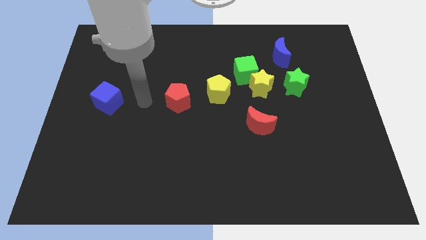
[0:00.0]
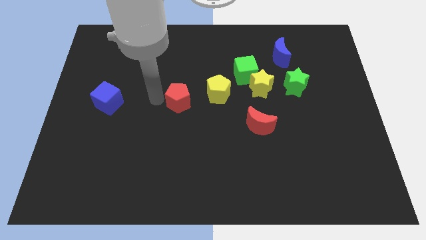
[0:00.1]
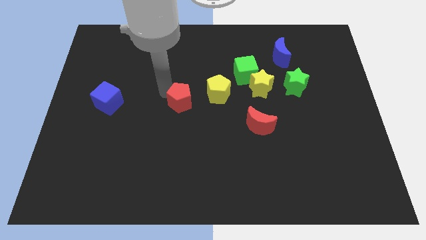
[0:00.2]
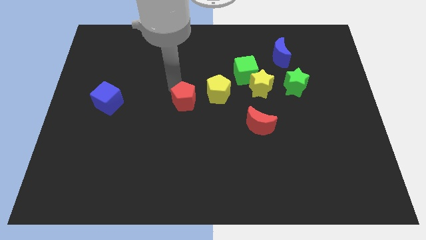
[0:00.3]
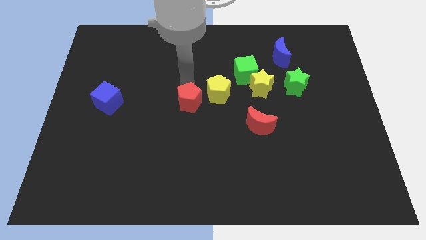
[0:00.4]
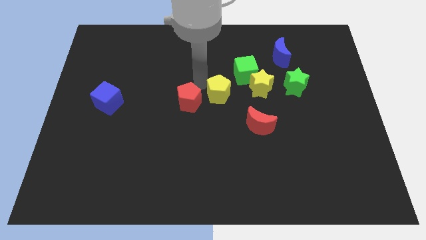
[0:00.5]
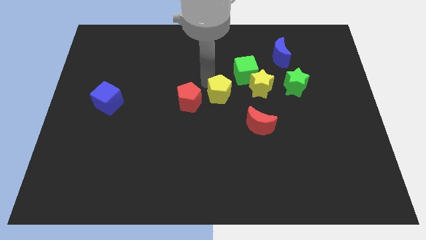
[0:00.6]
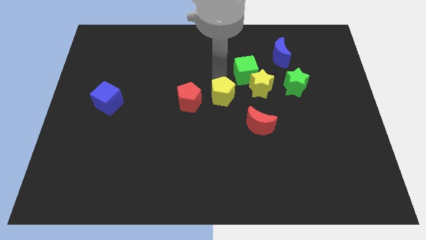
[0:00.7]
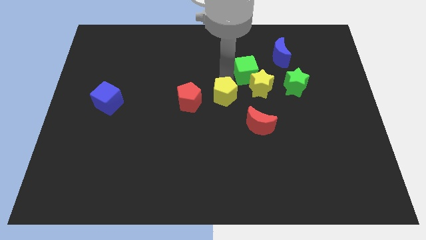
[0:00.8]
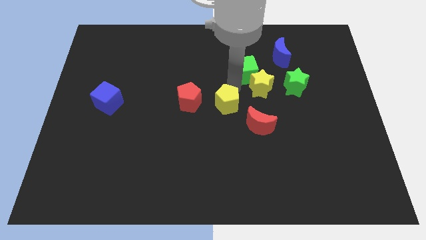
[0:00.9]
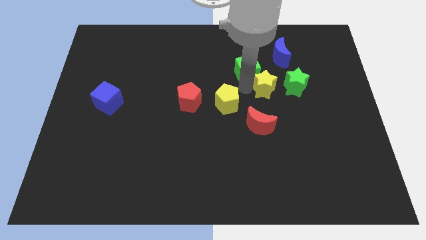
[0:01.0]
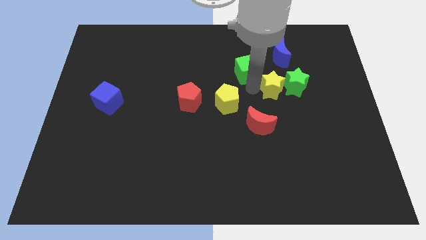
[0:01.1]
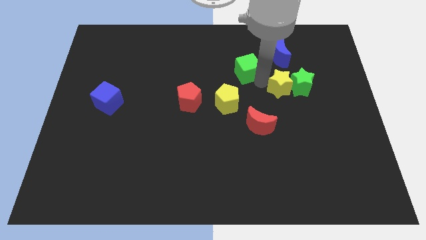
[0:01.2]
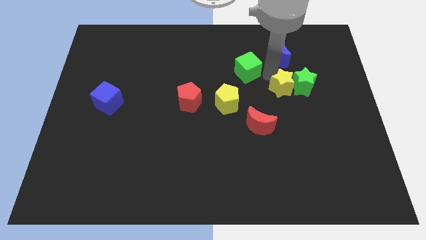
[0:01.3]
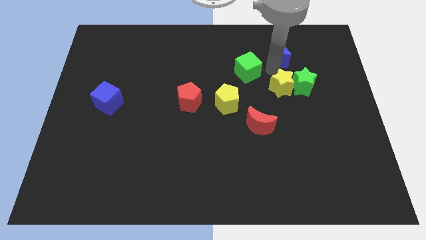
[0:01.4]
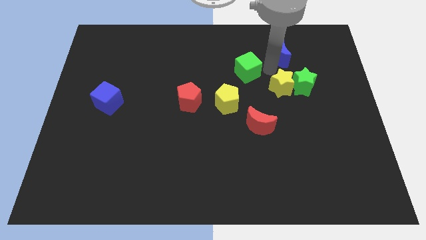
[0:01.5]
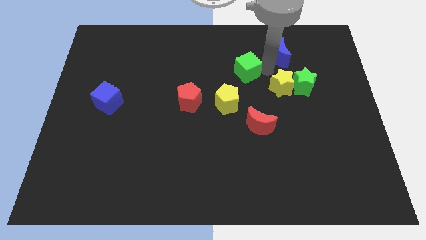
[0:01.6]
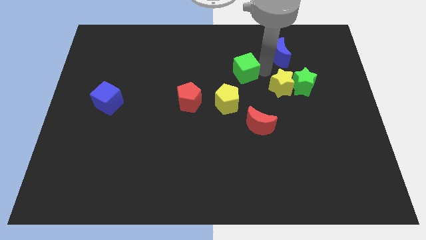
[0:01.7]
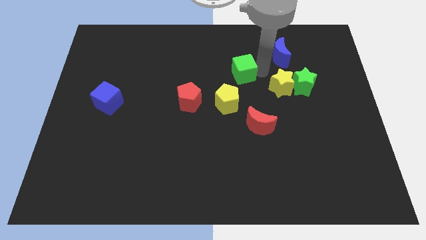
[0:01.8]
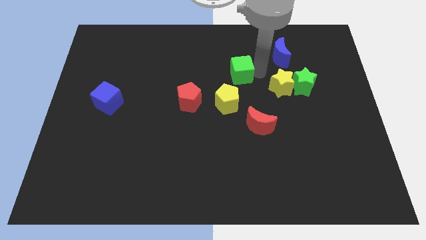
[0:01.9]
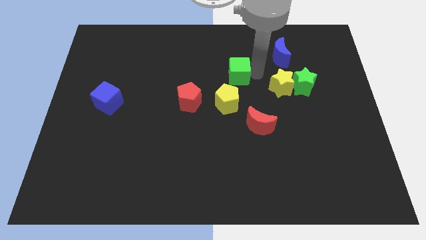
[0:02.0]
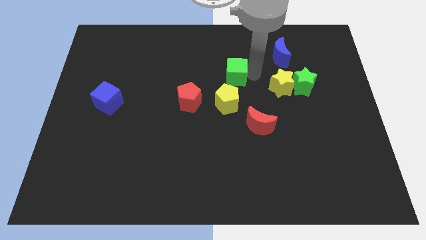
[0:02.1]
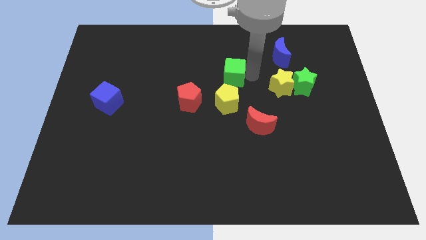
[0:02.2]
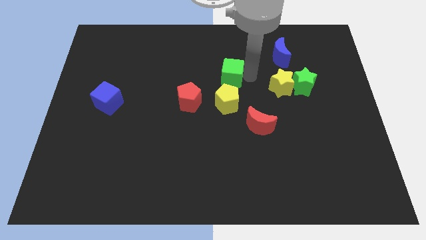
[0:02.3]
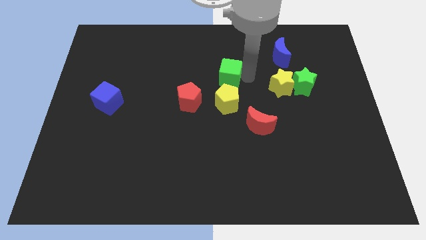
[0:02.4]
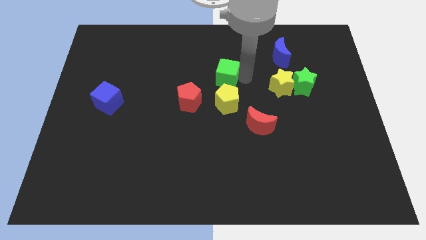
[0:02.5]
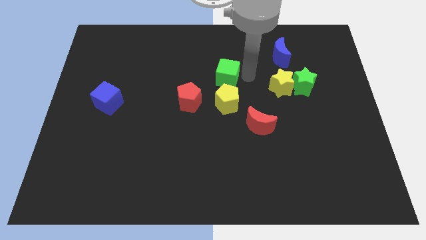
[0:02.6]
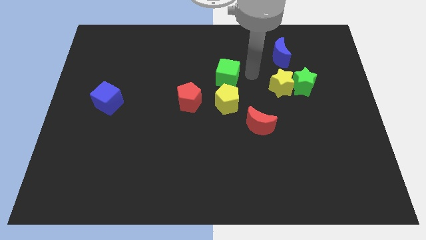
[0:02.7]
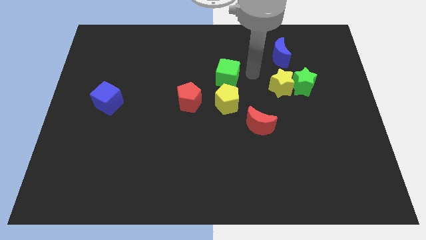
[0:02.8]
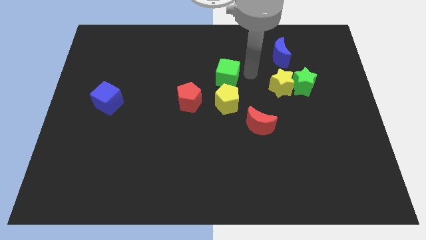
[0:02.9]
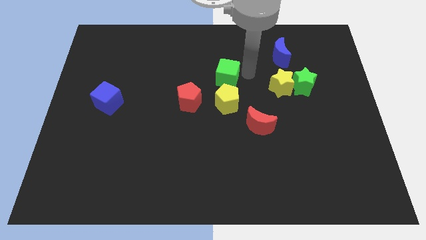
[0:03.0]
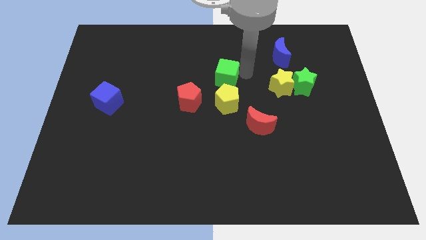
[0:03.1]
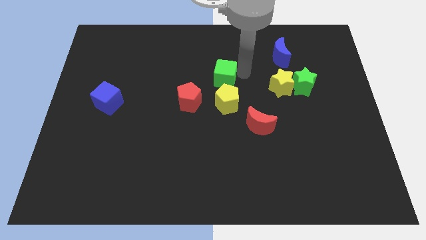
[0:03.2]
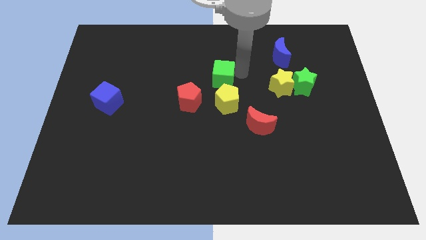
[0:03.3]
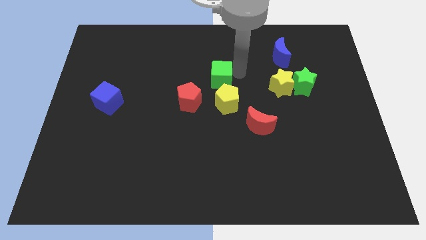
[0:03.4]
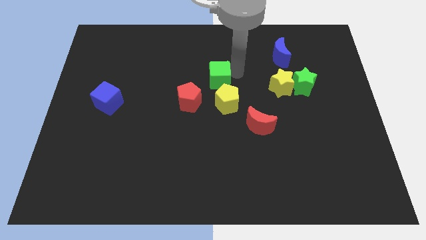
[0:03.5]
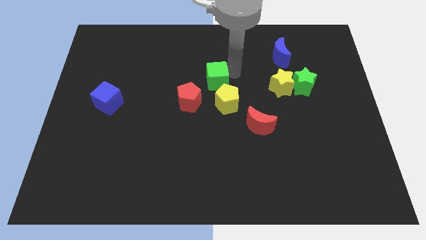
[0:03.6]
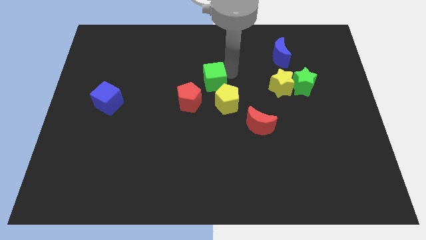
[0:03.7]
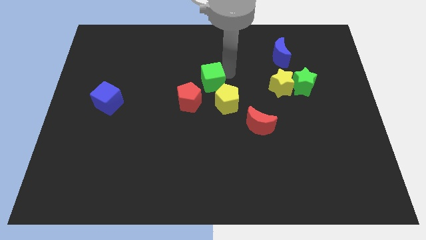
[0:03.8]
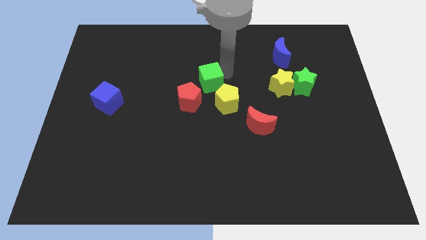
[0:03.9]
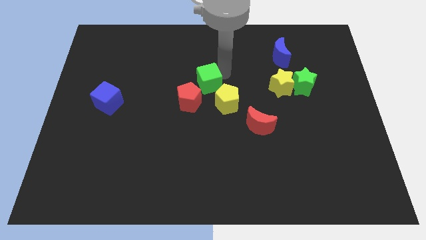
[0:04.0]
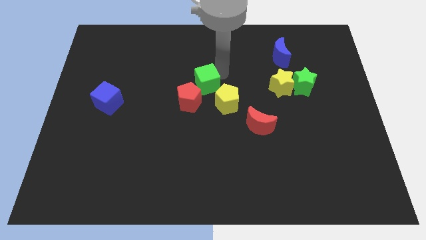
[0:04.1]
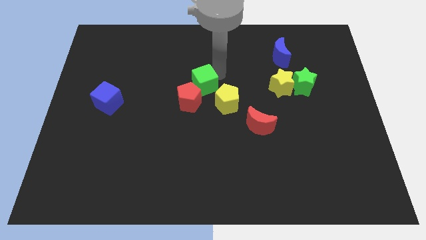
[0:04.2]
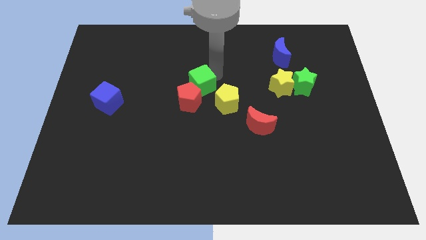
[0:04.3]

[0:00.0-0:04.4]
push the green cube to the red pentagon

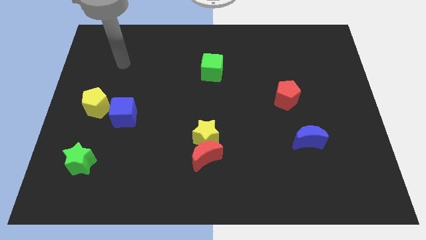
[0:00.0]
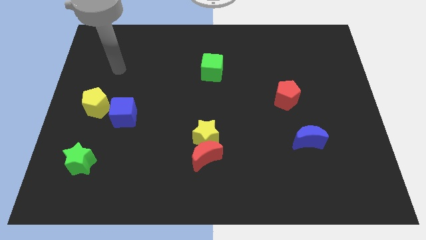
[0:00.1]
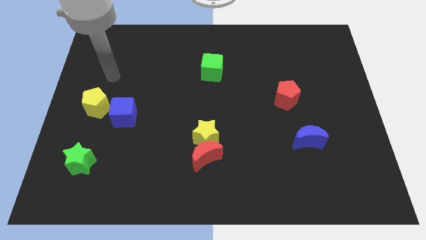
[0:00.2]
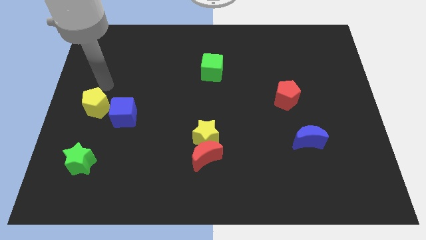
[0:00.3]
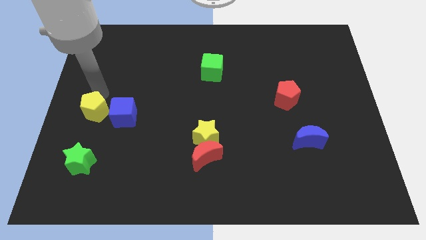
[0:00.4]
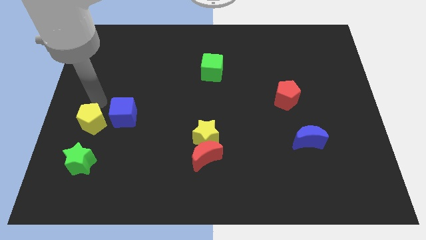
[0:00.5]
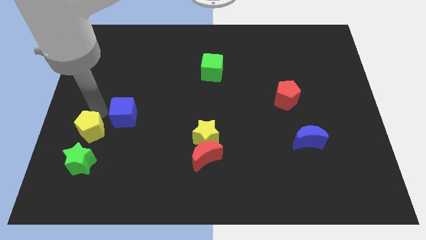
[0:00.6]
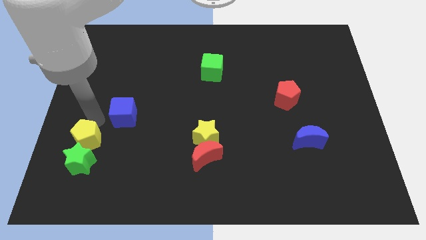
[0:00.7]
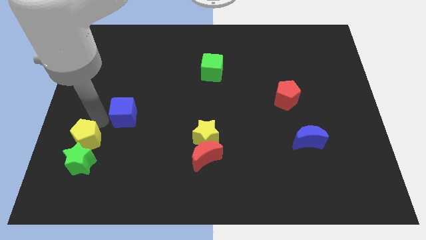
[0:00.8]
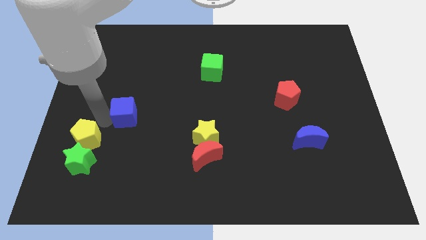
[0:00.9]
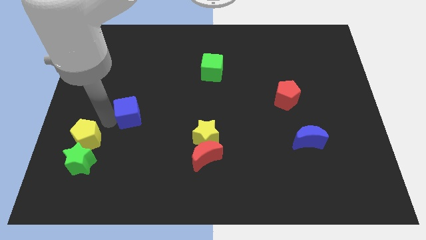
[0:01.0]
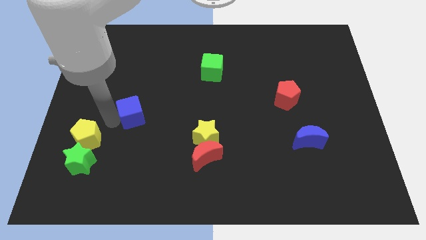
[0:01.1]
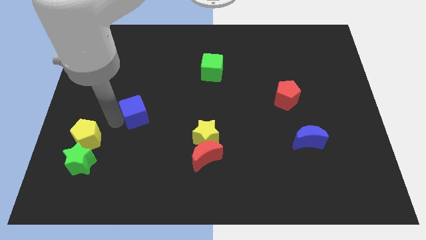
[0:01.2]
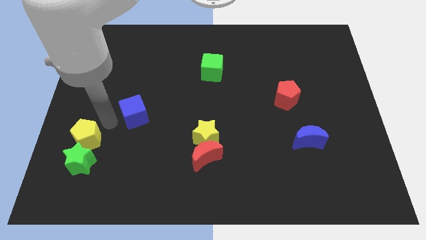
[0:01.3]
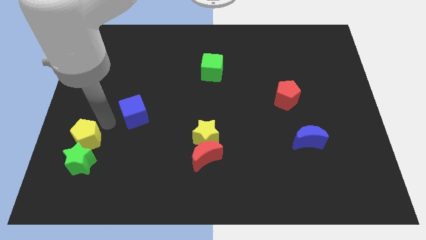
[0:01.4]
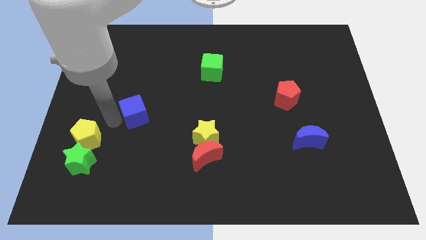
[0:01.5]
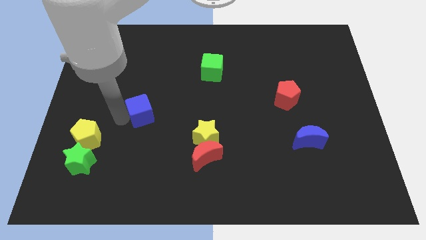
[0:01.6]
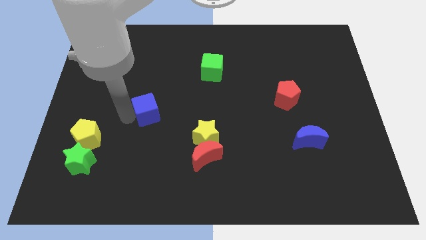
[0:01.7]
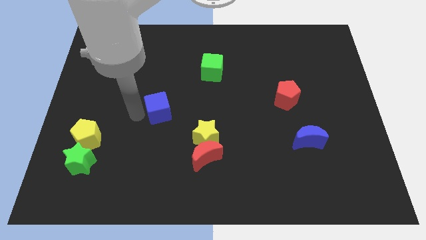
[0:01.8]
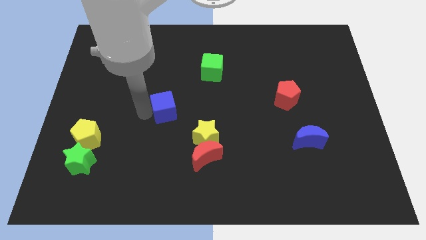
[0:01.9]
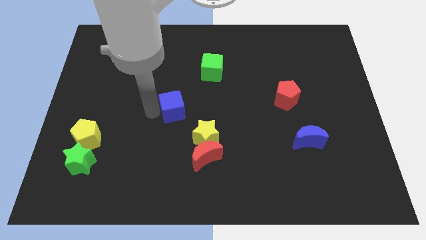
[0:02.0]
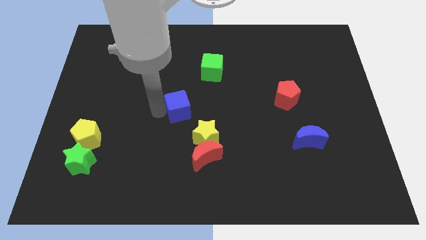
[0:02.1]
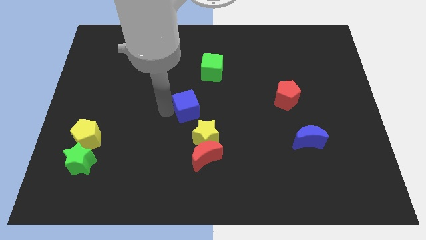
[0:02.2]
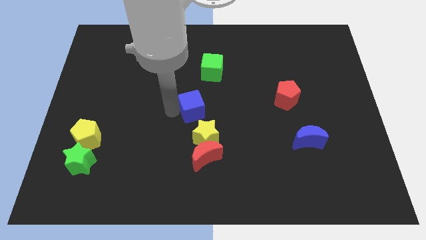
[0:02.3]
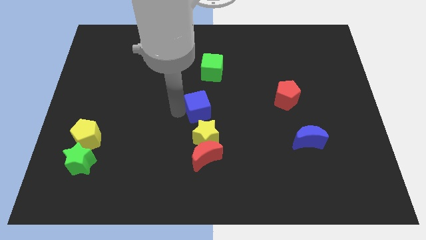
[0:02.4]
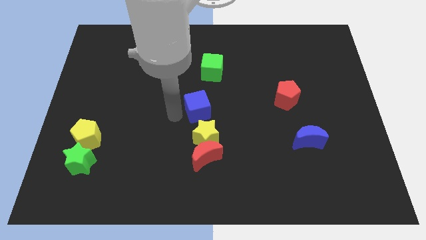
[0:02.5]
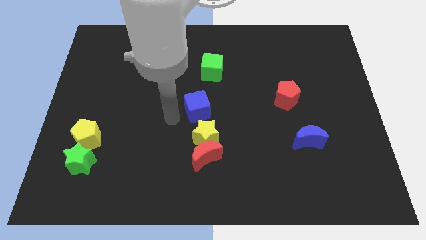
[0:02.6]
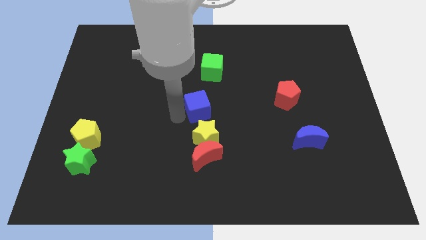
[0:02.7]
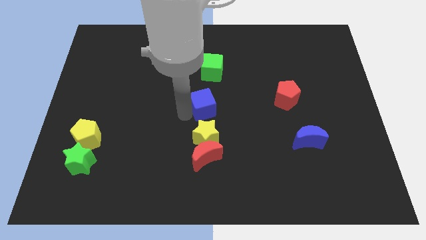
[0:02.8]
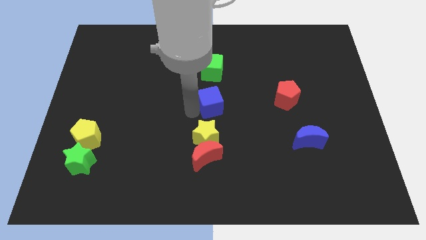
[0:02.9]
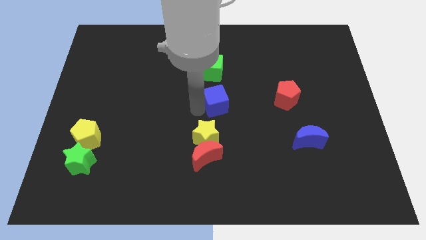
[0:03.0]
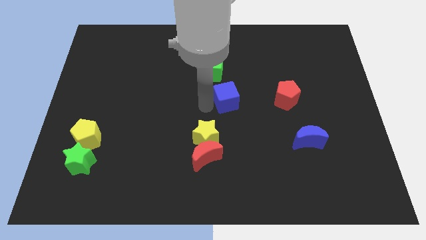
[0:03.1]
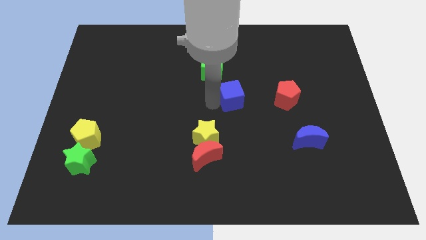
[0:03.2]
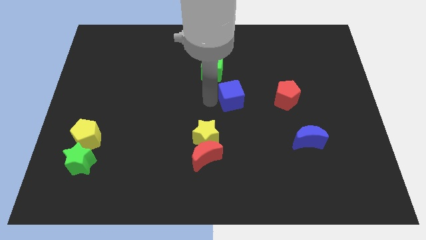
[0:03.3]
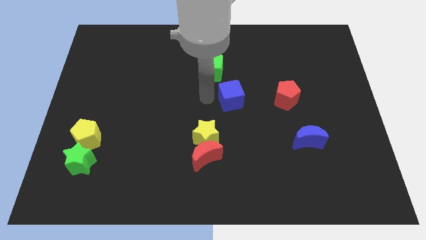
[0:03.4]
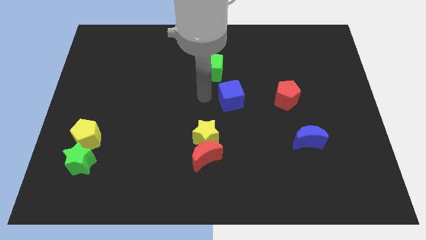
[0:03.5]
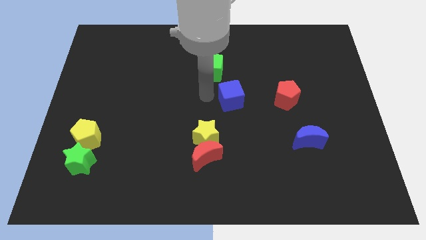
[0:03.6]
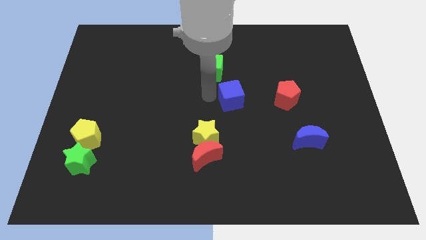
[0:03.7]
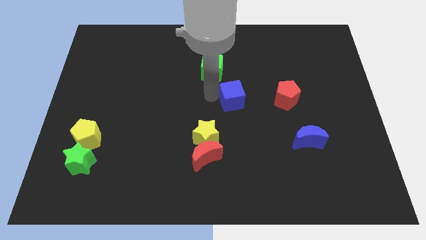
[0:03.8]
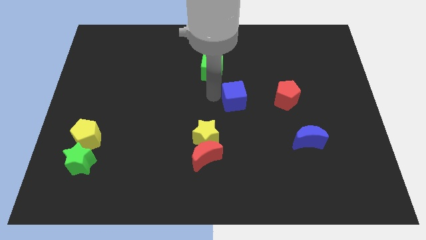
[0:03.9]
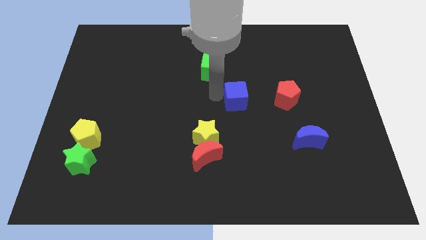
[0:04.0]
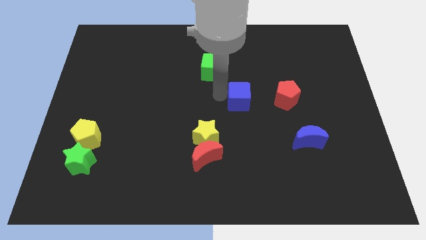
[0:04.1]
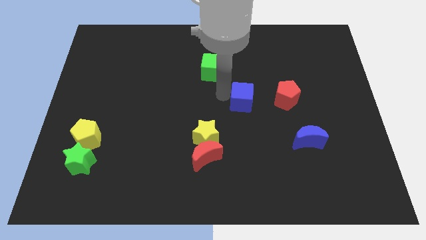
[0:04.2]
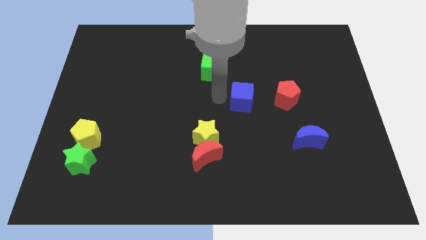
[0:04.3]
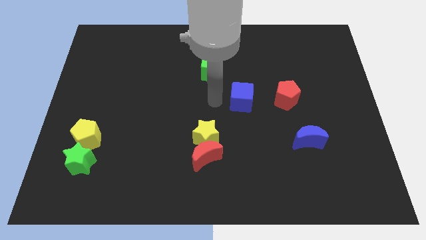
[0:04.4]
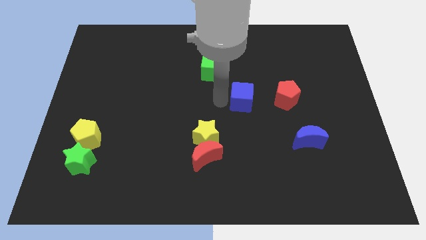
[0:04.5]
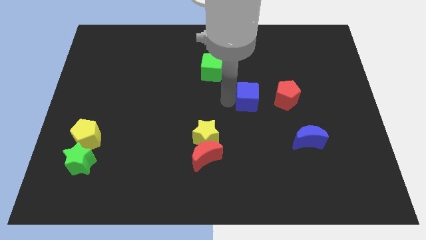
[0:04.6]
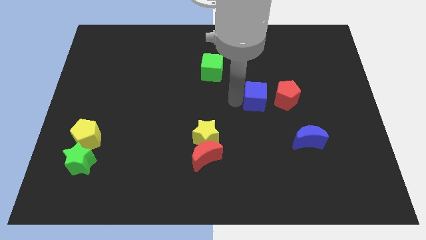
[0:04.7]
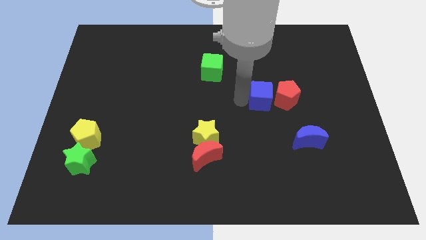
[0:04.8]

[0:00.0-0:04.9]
slide the blue cube towards the red pentagon
